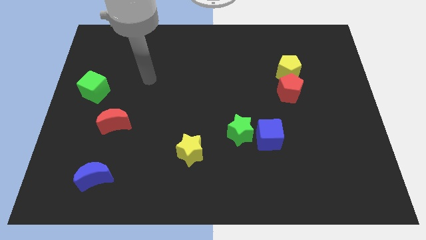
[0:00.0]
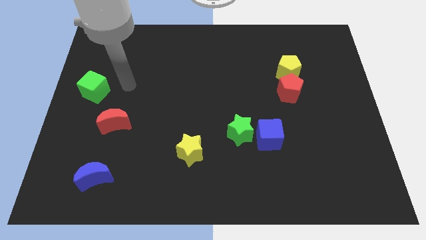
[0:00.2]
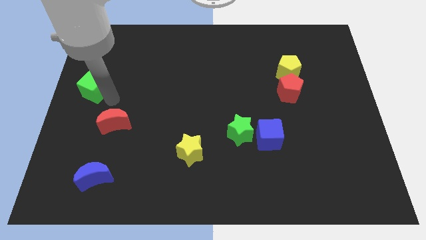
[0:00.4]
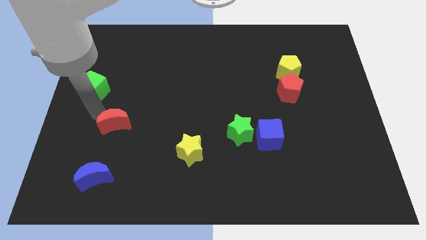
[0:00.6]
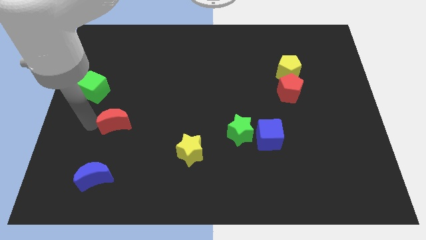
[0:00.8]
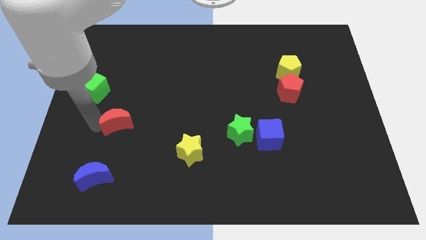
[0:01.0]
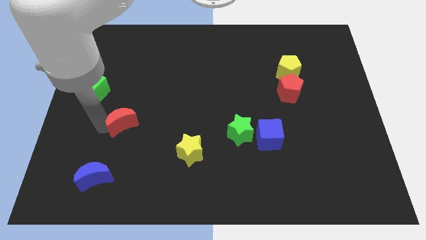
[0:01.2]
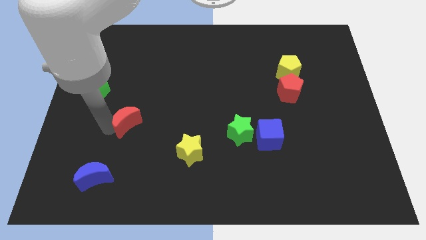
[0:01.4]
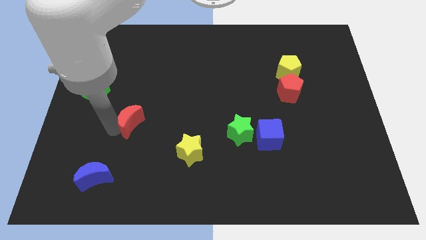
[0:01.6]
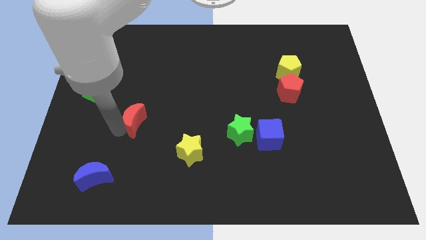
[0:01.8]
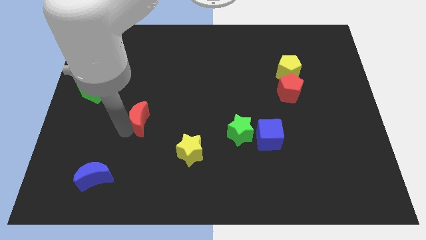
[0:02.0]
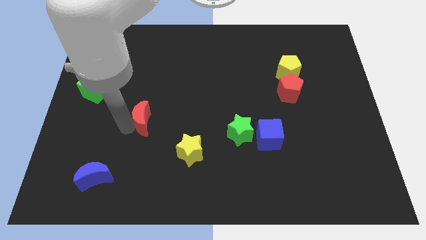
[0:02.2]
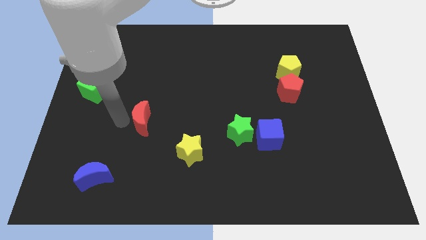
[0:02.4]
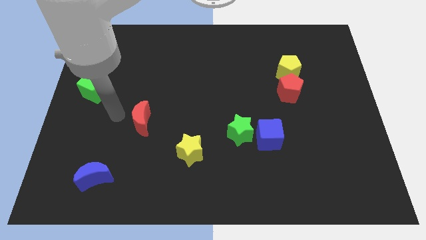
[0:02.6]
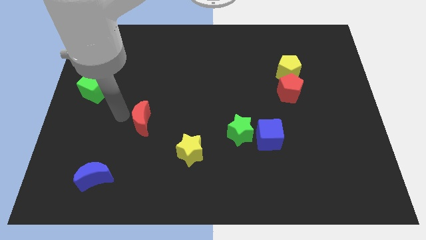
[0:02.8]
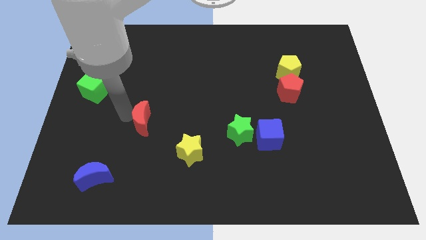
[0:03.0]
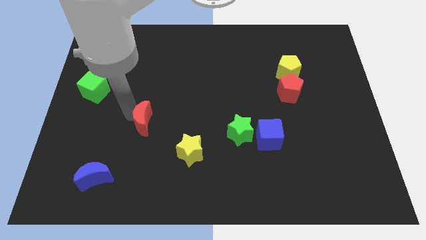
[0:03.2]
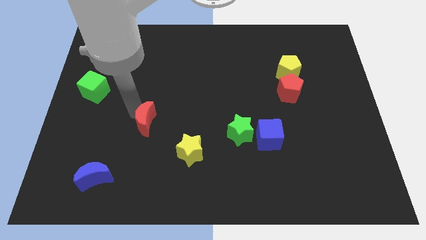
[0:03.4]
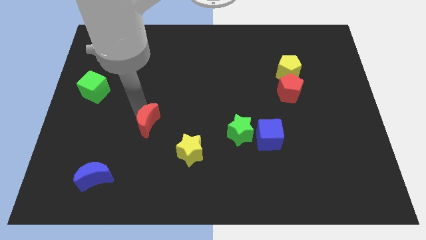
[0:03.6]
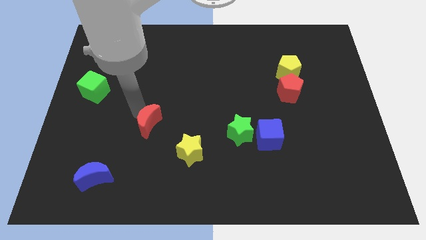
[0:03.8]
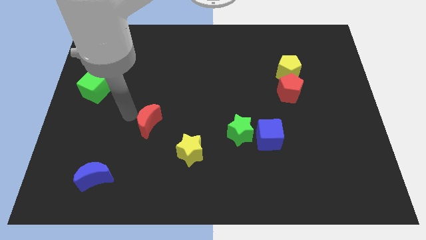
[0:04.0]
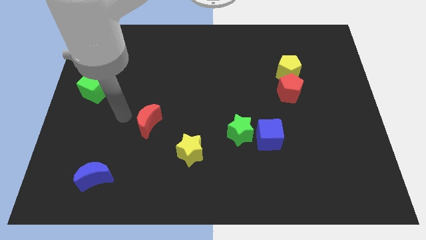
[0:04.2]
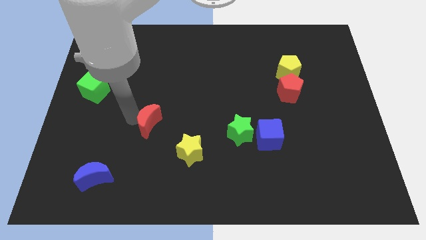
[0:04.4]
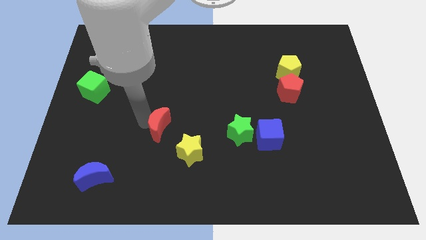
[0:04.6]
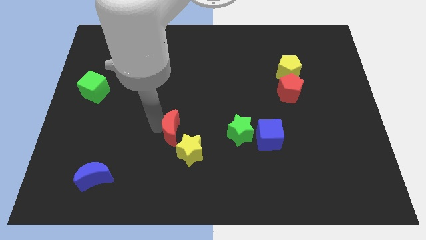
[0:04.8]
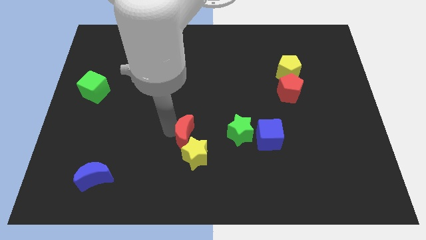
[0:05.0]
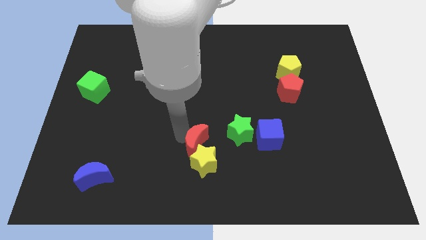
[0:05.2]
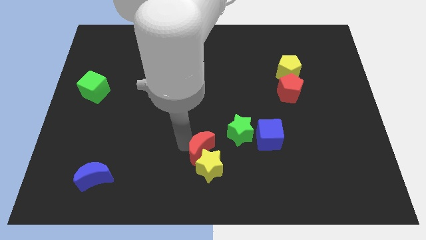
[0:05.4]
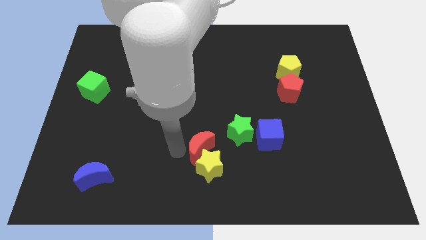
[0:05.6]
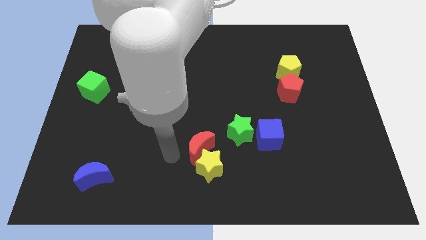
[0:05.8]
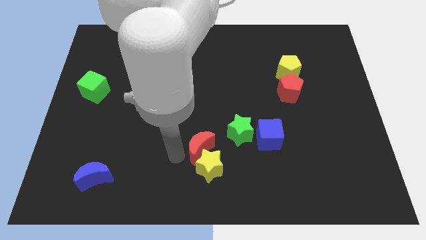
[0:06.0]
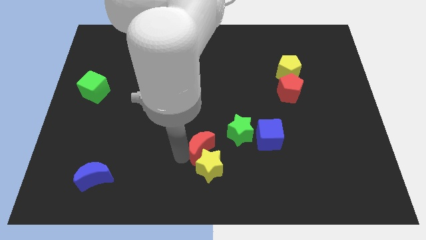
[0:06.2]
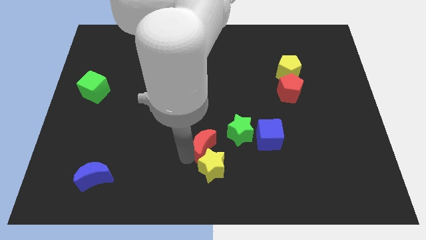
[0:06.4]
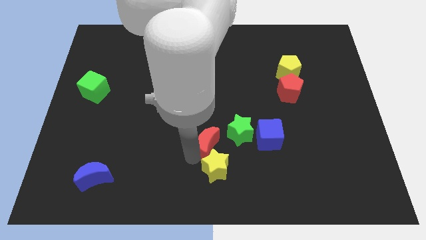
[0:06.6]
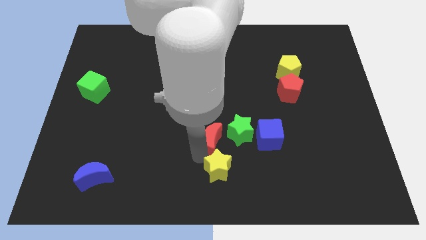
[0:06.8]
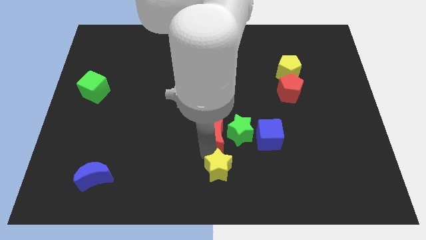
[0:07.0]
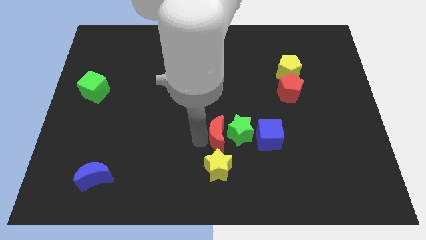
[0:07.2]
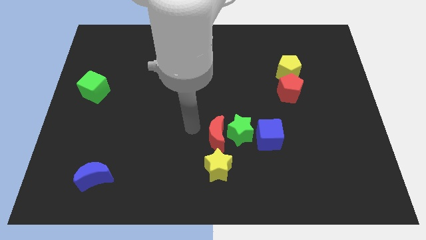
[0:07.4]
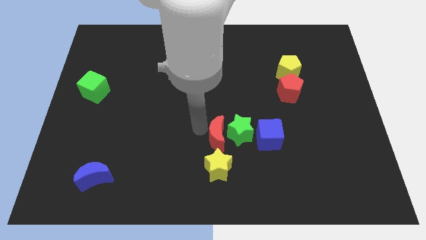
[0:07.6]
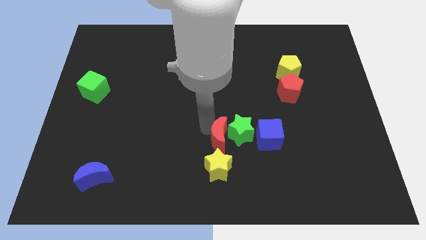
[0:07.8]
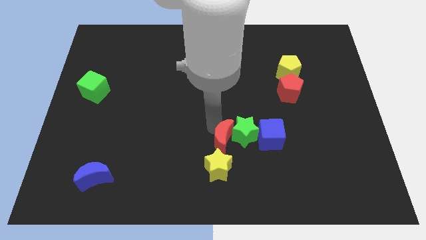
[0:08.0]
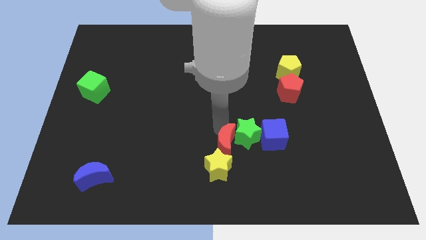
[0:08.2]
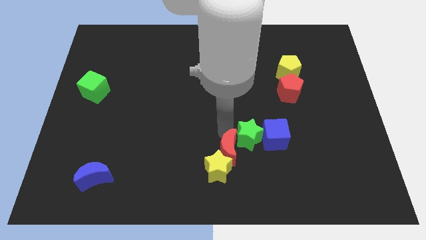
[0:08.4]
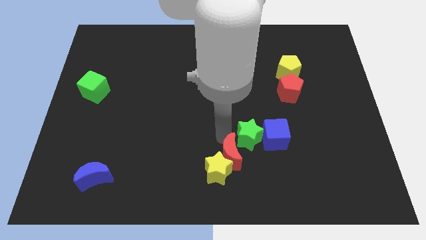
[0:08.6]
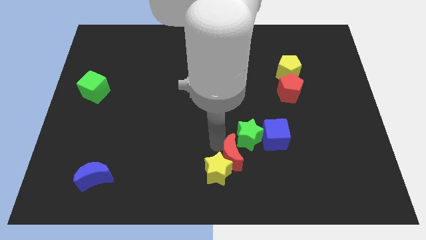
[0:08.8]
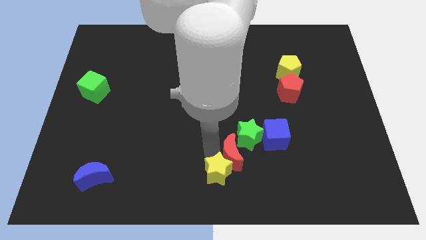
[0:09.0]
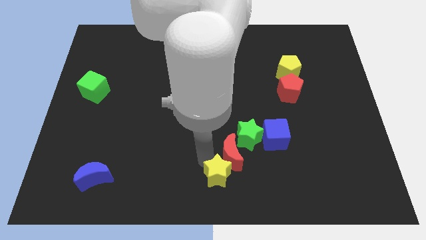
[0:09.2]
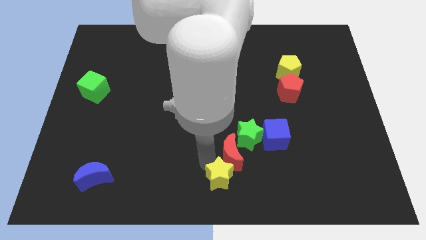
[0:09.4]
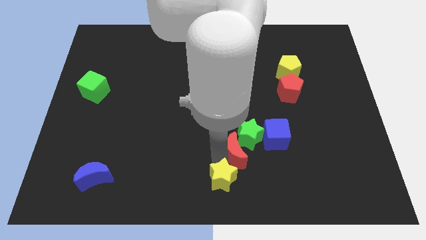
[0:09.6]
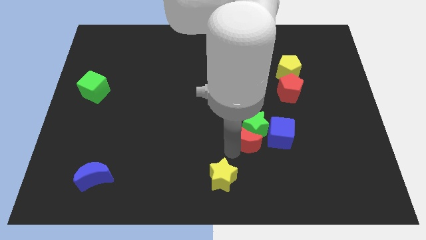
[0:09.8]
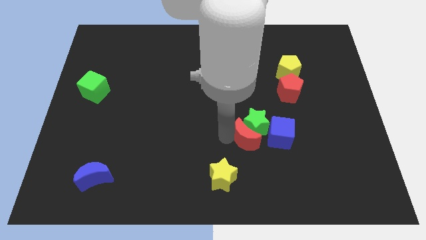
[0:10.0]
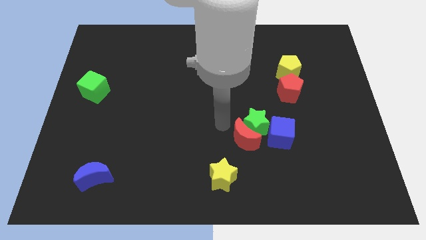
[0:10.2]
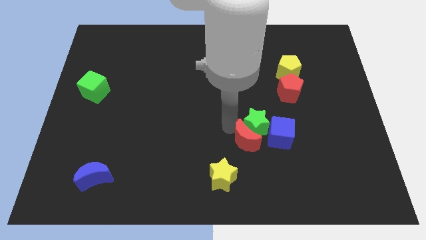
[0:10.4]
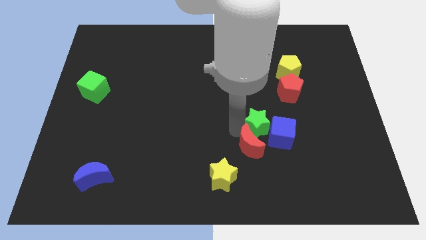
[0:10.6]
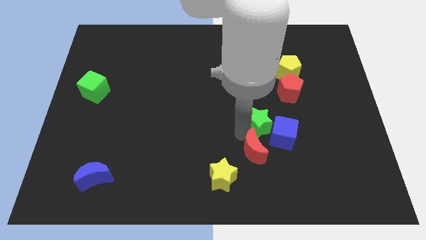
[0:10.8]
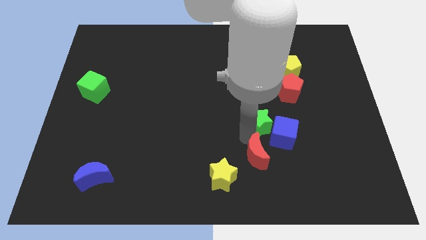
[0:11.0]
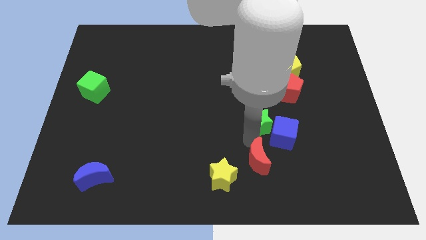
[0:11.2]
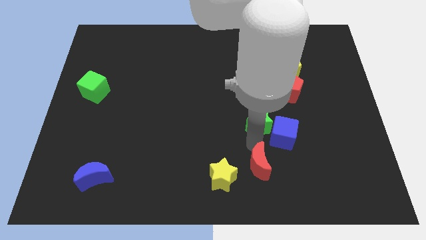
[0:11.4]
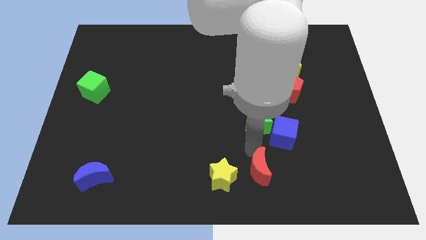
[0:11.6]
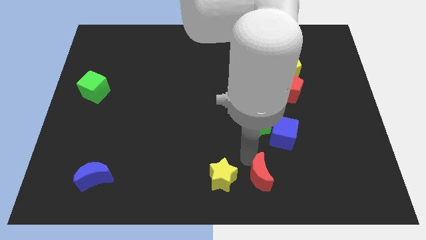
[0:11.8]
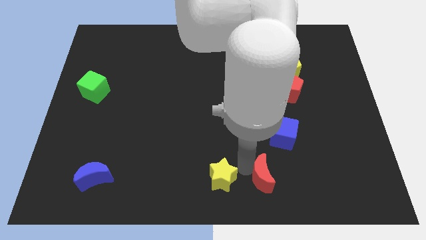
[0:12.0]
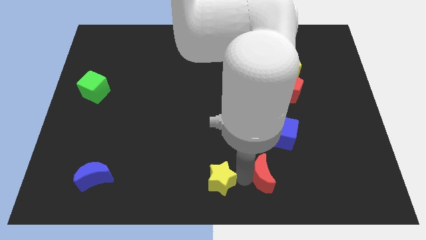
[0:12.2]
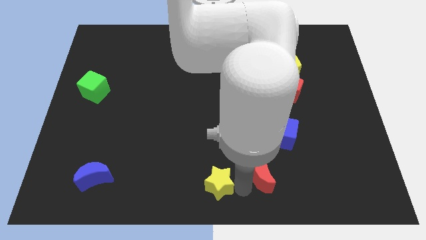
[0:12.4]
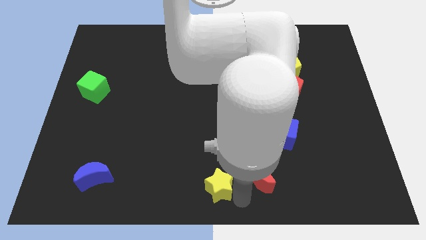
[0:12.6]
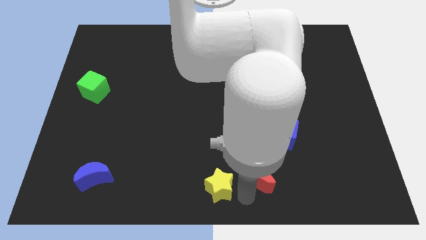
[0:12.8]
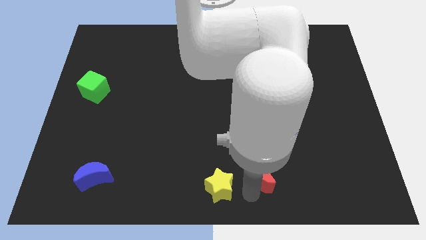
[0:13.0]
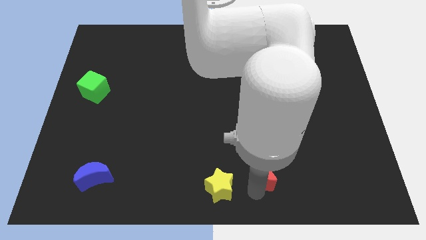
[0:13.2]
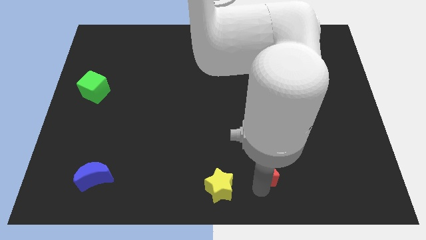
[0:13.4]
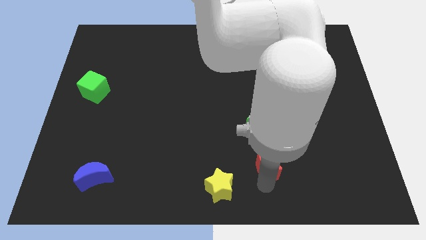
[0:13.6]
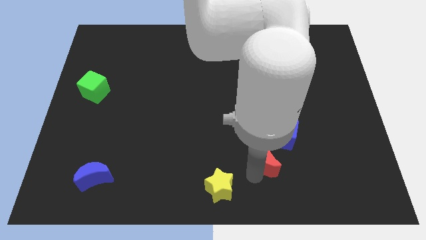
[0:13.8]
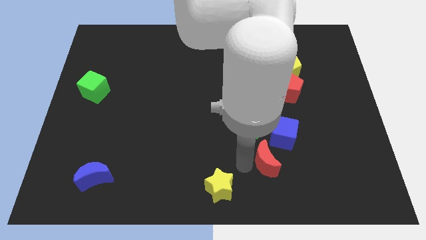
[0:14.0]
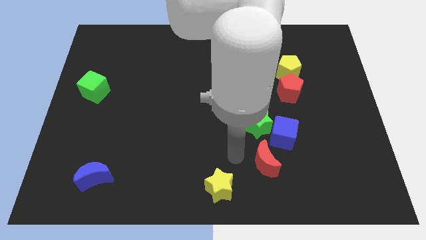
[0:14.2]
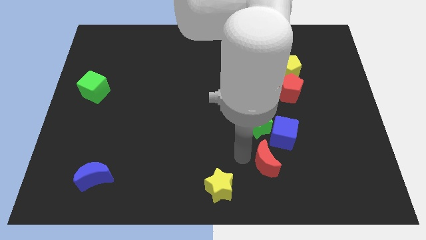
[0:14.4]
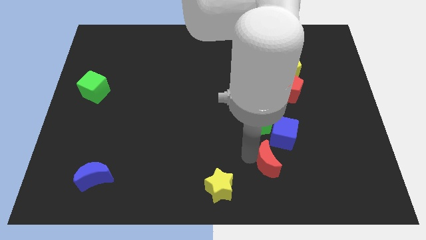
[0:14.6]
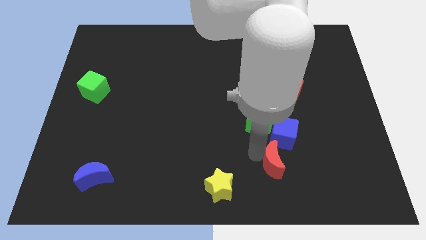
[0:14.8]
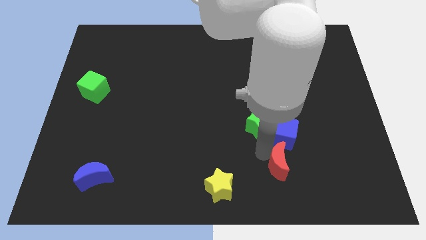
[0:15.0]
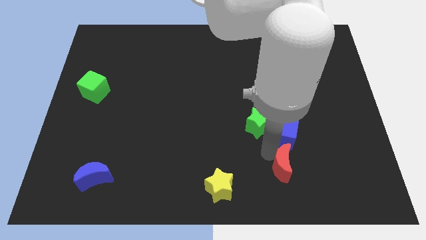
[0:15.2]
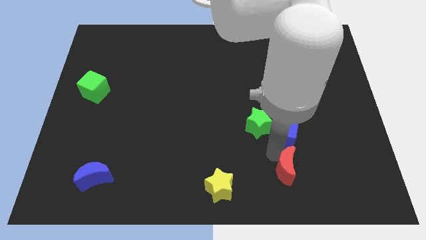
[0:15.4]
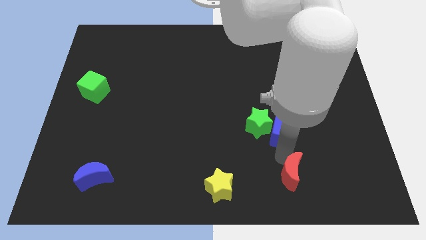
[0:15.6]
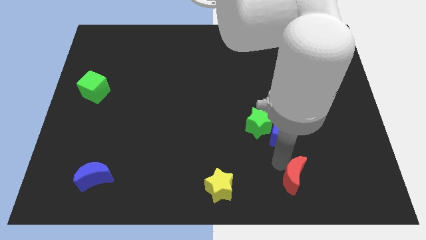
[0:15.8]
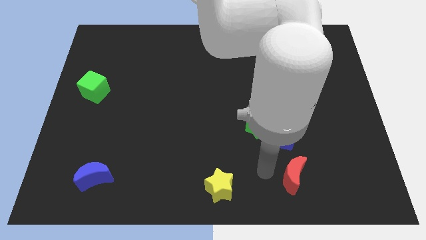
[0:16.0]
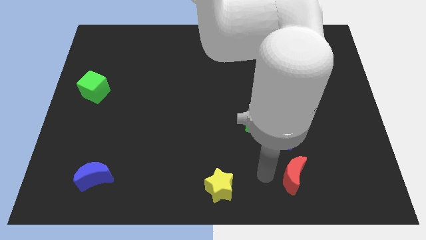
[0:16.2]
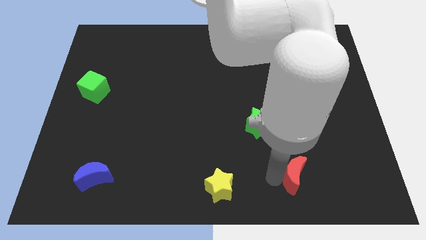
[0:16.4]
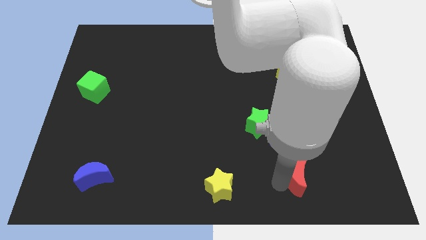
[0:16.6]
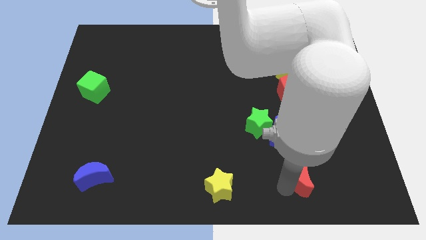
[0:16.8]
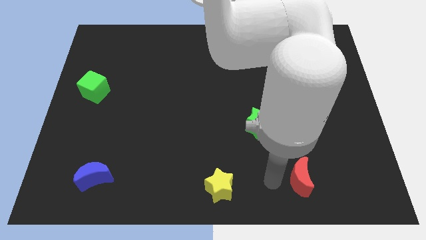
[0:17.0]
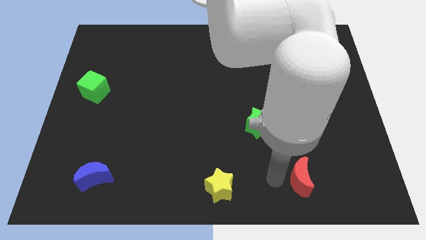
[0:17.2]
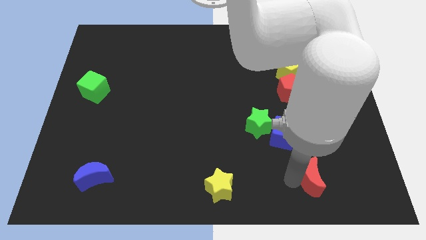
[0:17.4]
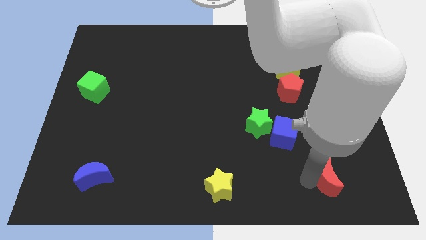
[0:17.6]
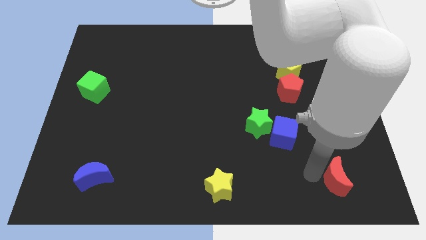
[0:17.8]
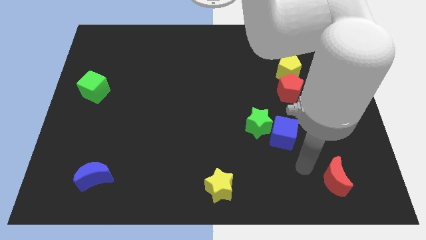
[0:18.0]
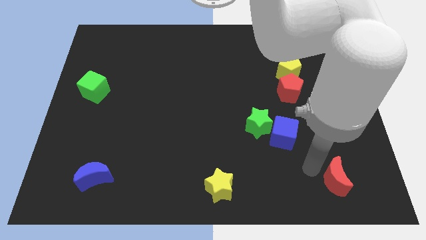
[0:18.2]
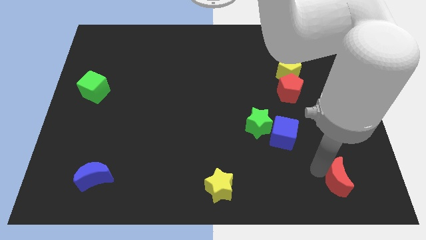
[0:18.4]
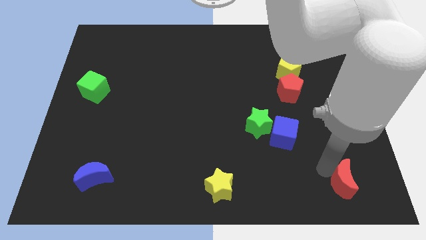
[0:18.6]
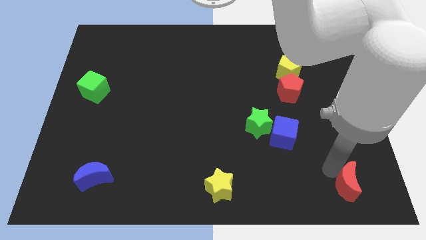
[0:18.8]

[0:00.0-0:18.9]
push the red moon to the bottom right
